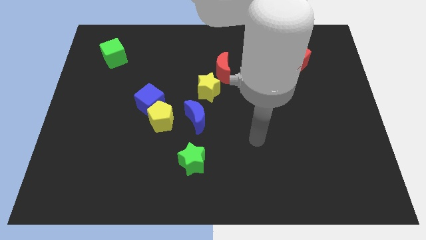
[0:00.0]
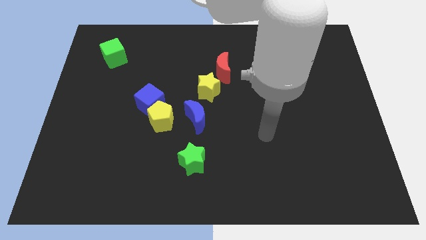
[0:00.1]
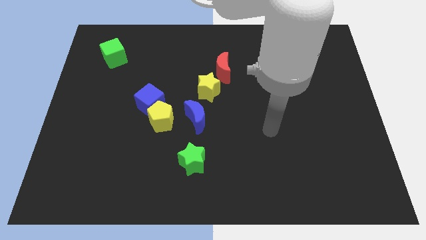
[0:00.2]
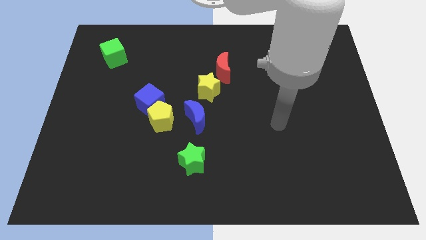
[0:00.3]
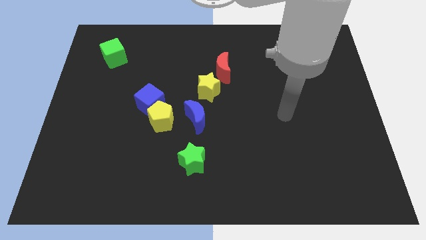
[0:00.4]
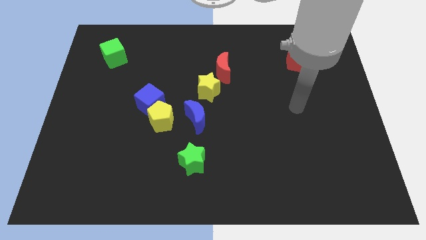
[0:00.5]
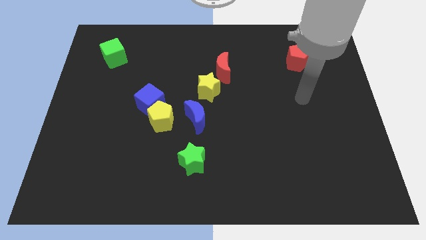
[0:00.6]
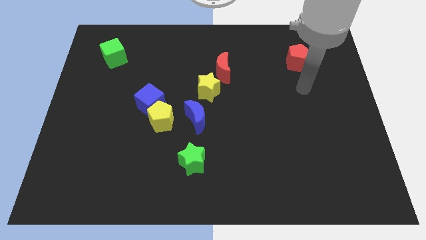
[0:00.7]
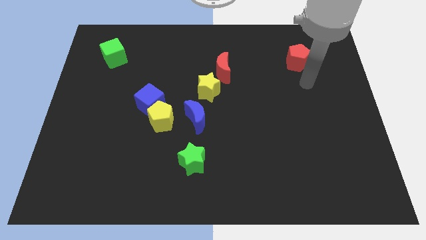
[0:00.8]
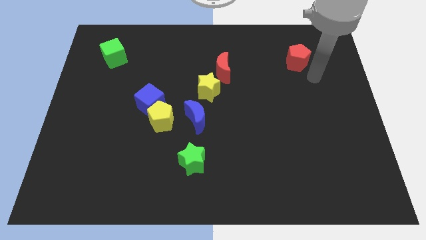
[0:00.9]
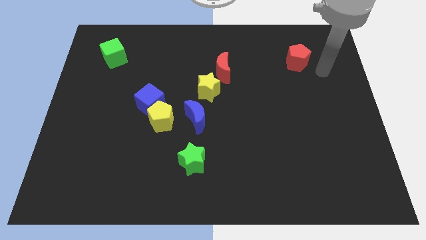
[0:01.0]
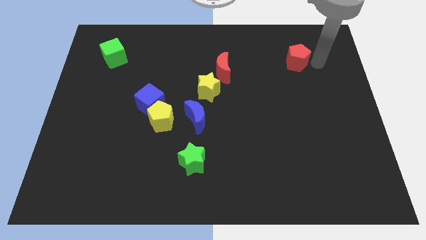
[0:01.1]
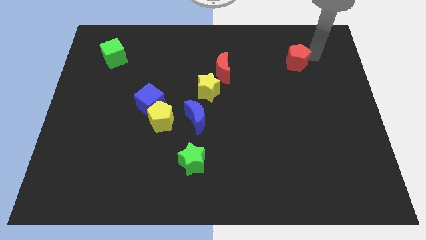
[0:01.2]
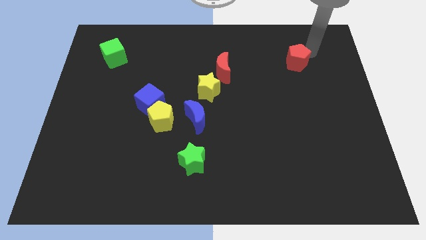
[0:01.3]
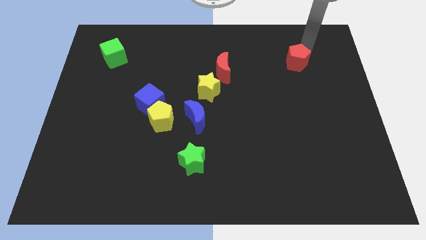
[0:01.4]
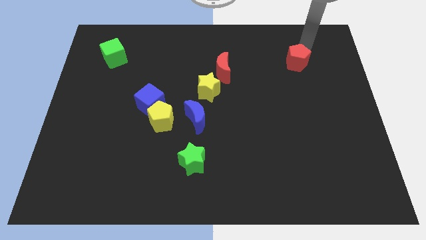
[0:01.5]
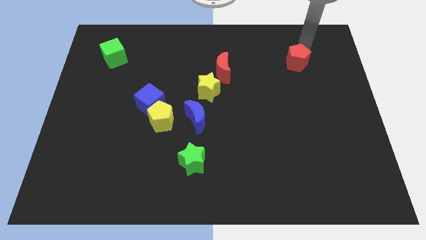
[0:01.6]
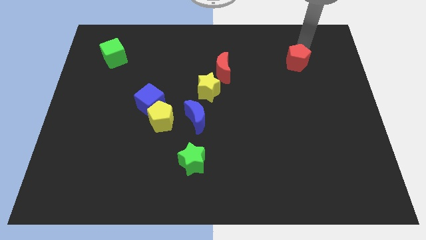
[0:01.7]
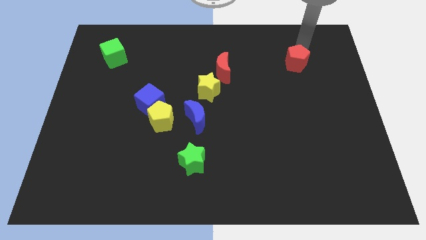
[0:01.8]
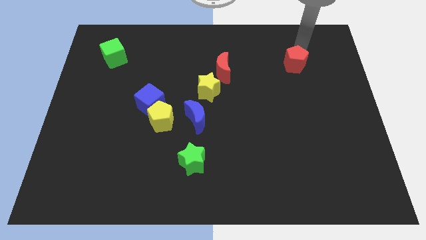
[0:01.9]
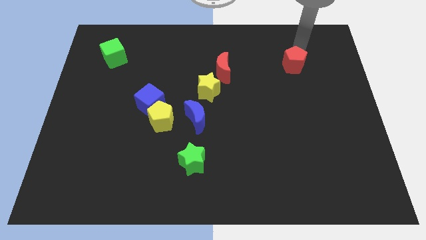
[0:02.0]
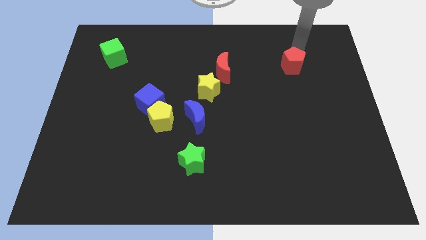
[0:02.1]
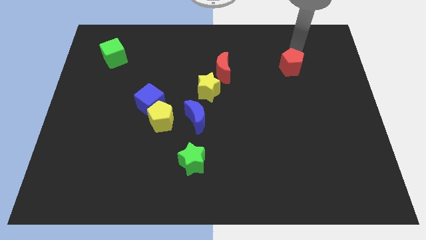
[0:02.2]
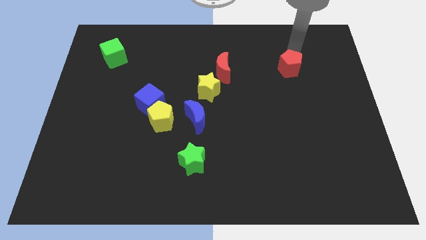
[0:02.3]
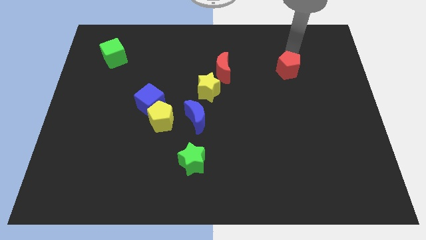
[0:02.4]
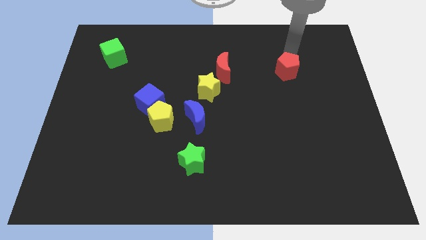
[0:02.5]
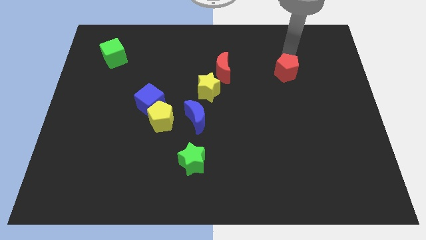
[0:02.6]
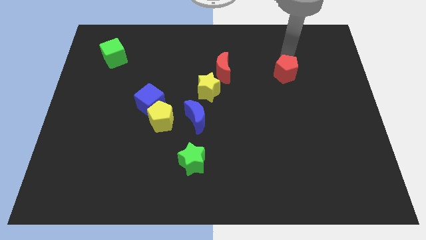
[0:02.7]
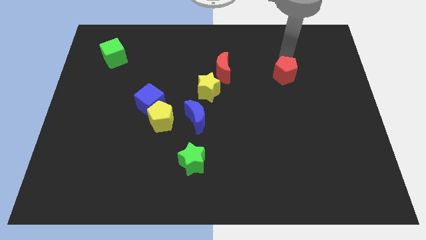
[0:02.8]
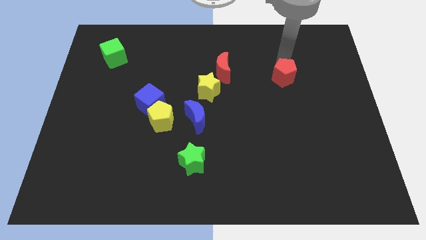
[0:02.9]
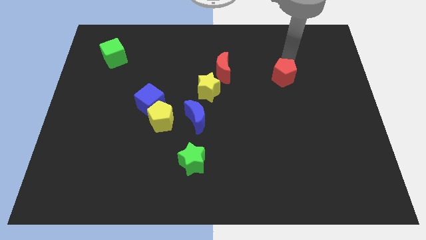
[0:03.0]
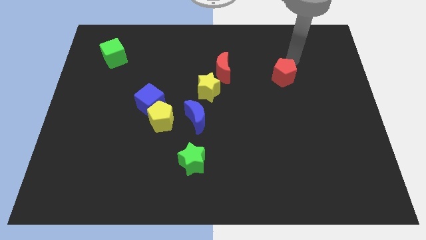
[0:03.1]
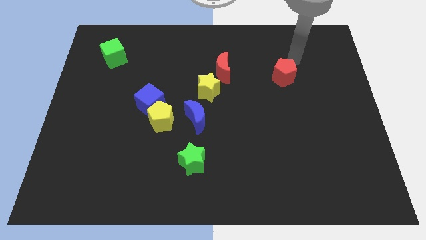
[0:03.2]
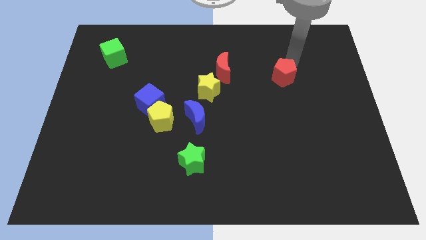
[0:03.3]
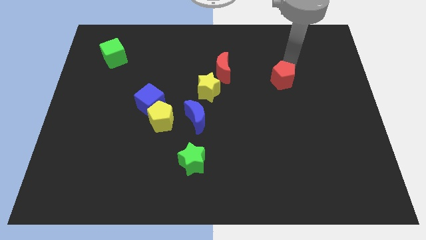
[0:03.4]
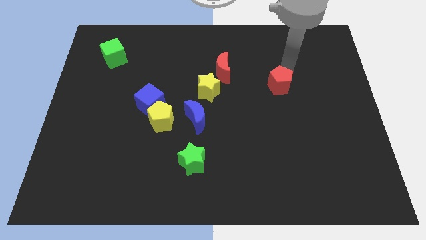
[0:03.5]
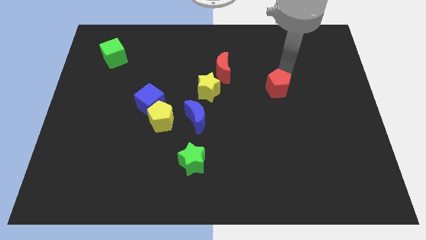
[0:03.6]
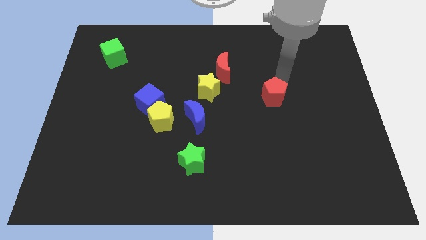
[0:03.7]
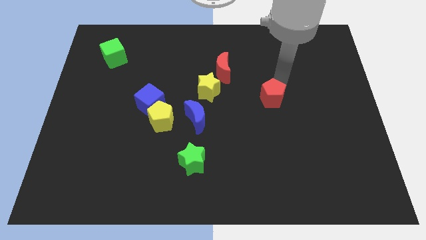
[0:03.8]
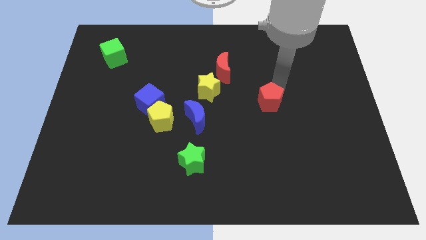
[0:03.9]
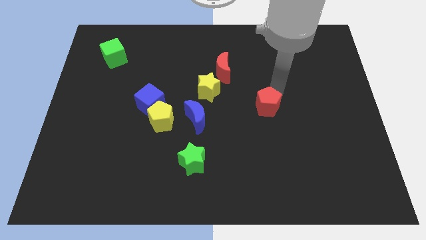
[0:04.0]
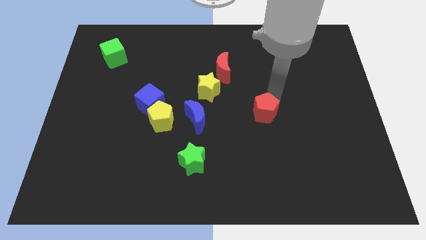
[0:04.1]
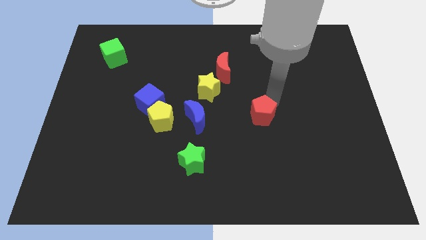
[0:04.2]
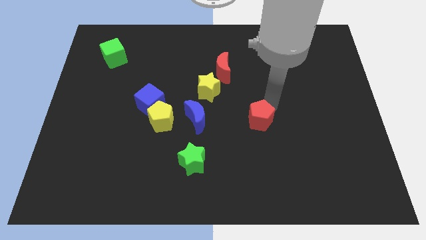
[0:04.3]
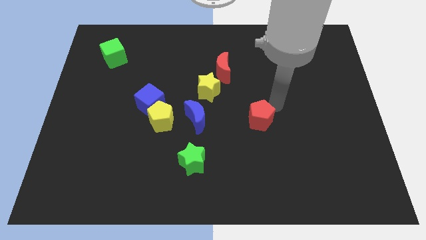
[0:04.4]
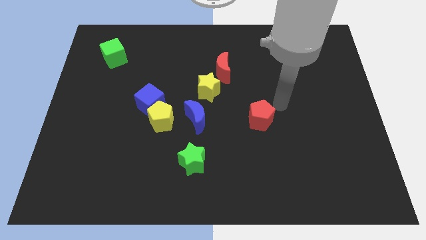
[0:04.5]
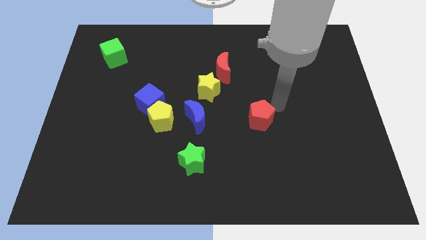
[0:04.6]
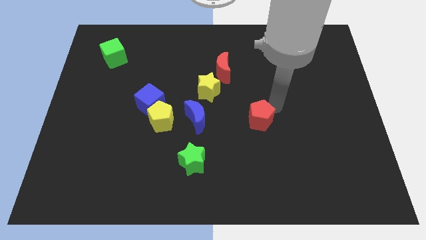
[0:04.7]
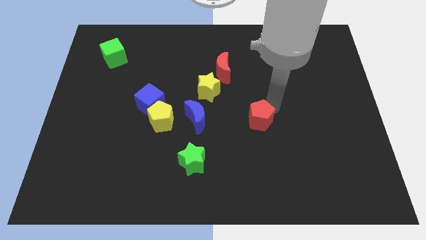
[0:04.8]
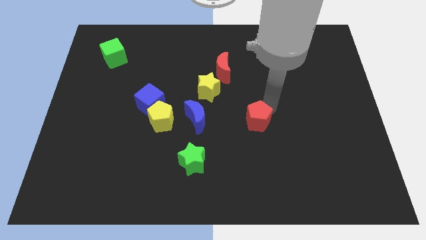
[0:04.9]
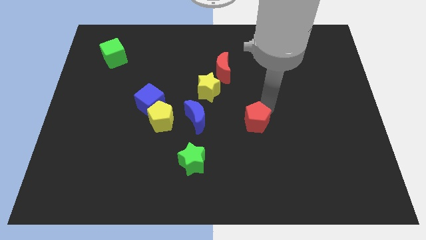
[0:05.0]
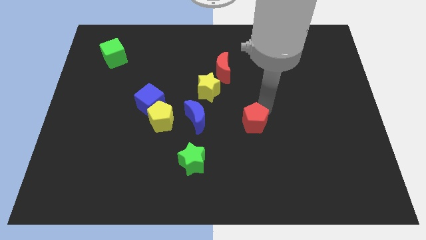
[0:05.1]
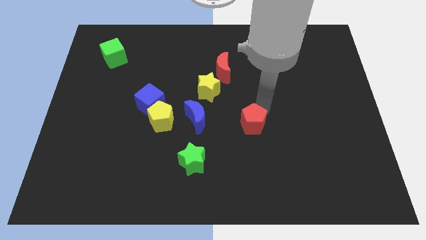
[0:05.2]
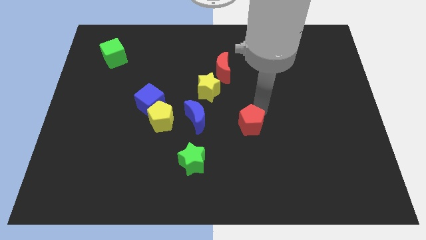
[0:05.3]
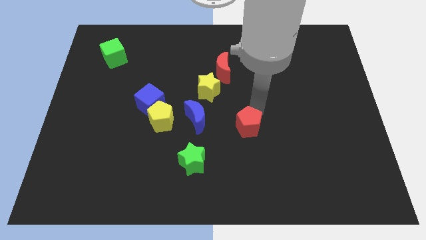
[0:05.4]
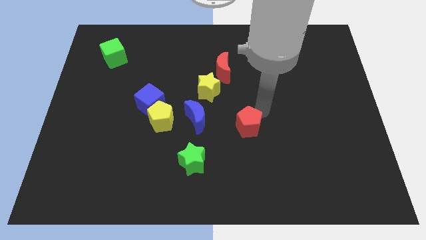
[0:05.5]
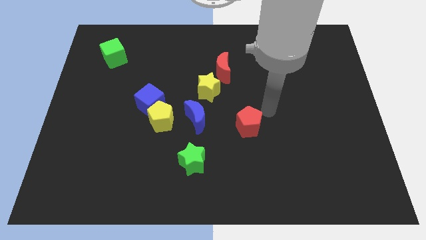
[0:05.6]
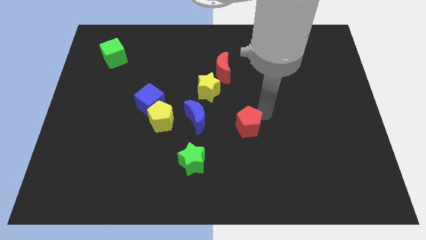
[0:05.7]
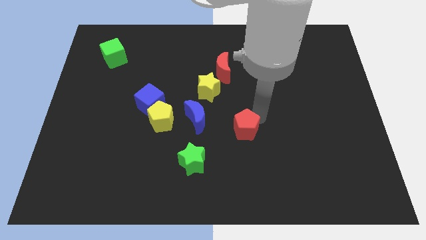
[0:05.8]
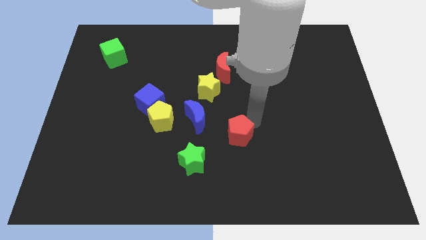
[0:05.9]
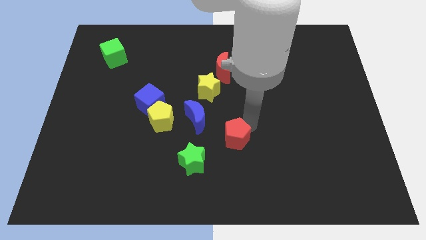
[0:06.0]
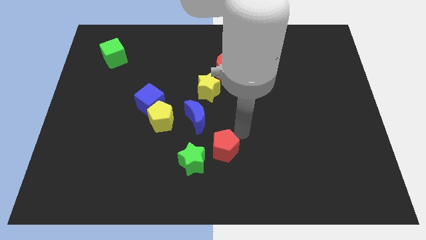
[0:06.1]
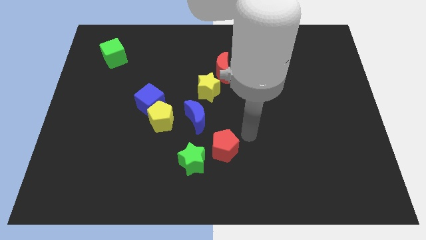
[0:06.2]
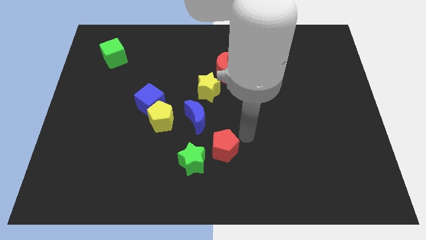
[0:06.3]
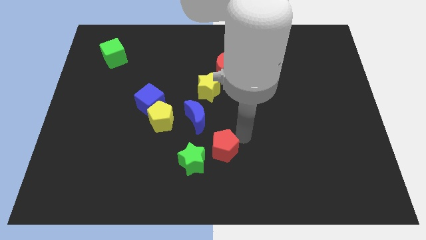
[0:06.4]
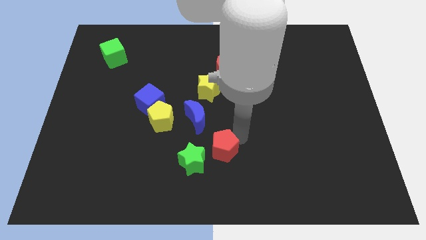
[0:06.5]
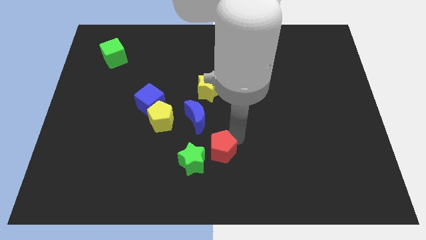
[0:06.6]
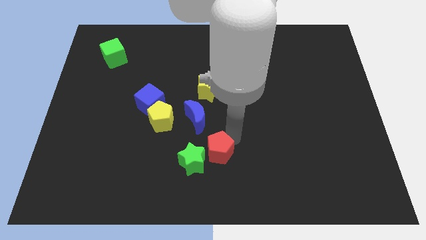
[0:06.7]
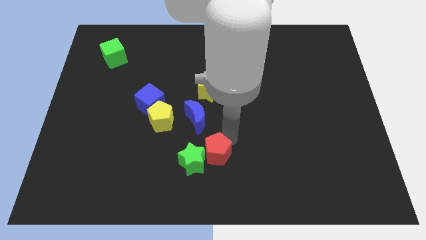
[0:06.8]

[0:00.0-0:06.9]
push the red pentagon to the green star
